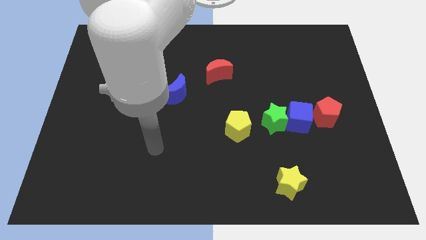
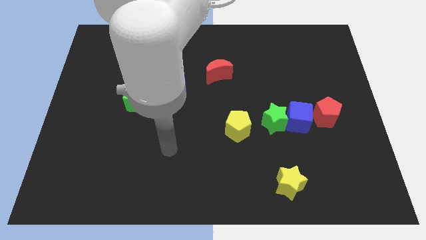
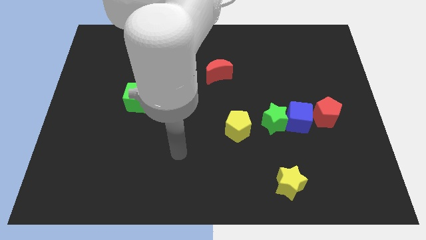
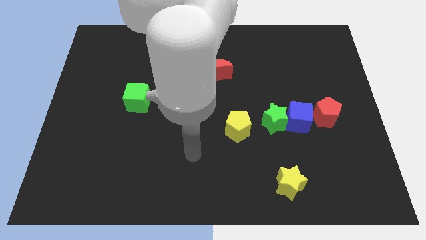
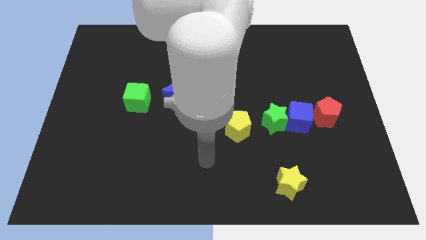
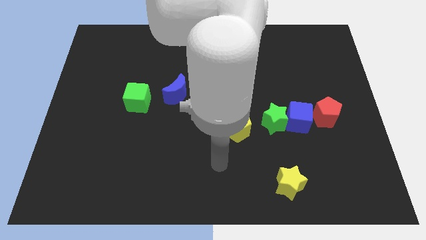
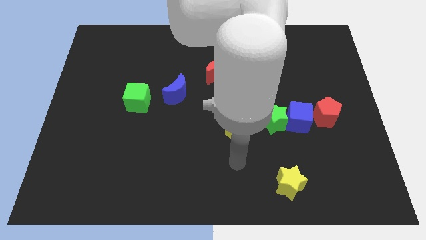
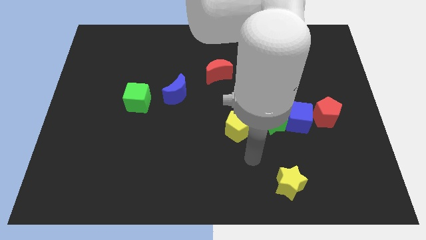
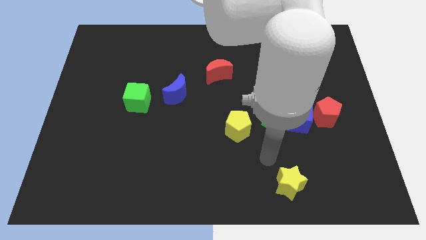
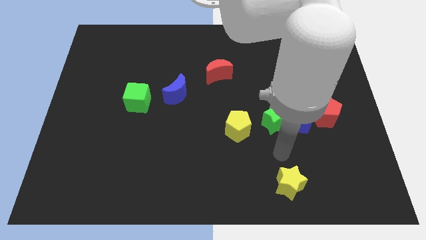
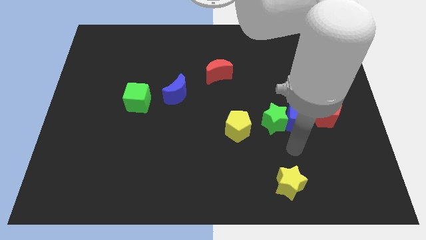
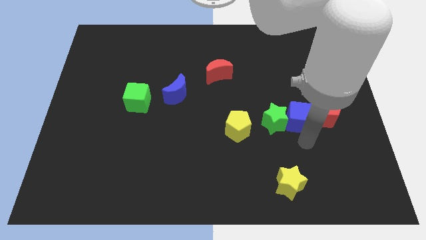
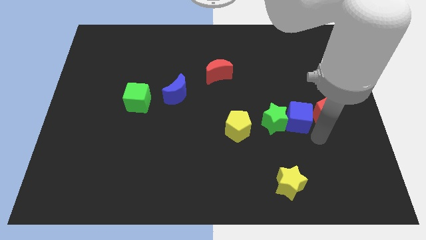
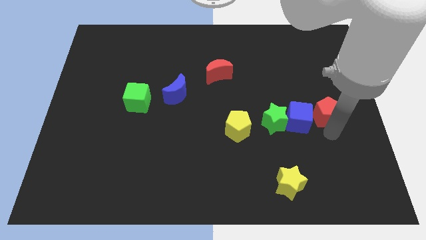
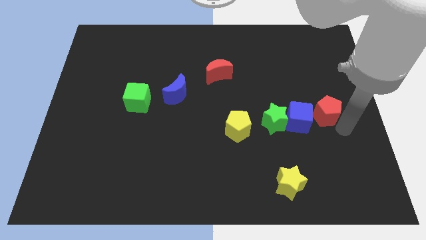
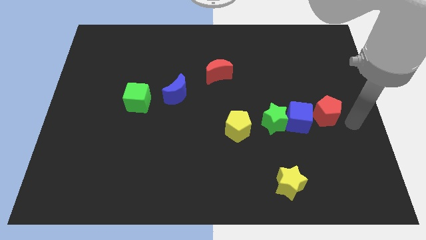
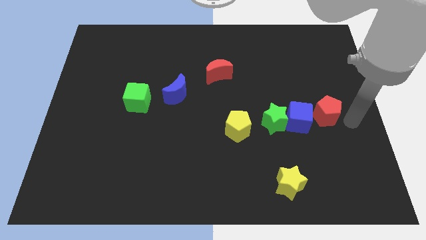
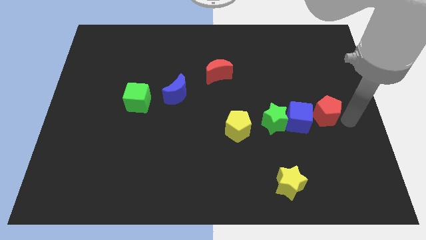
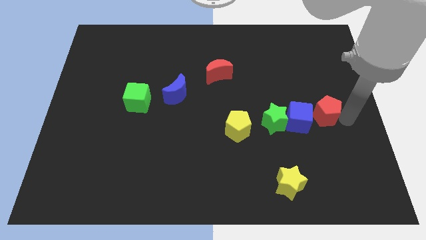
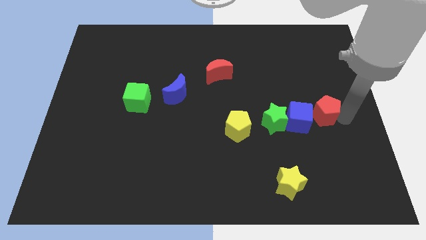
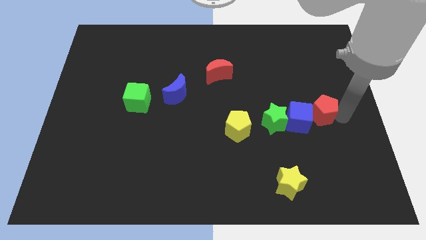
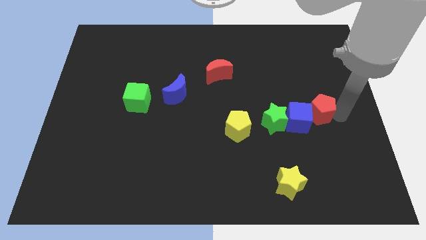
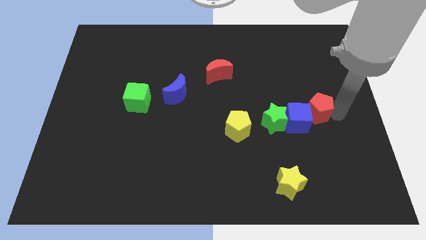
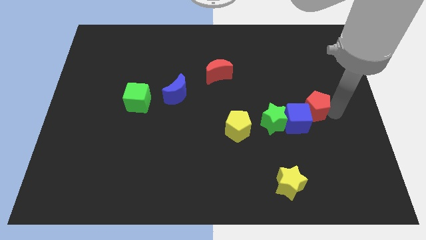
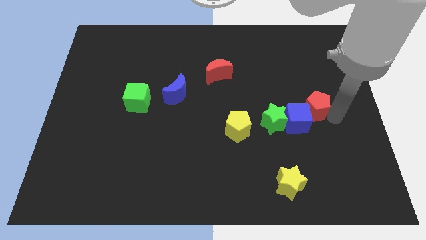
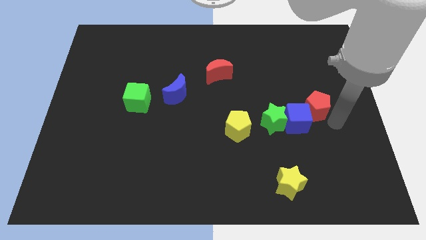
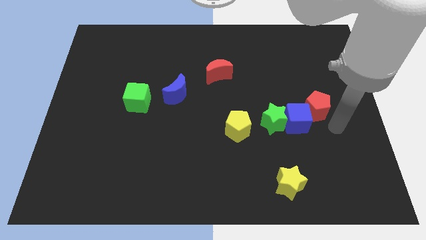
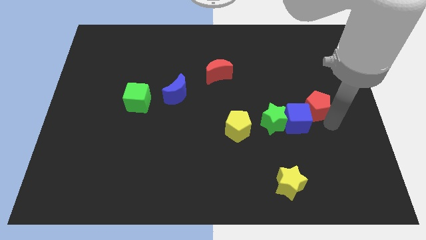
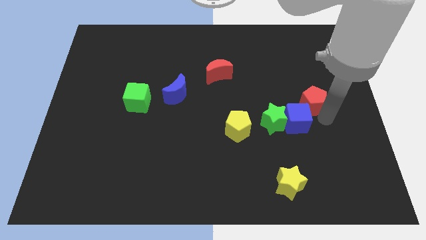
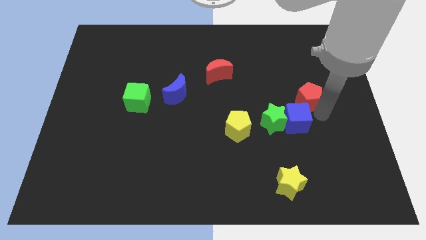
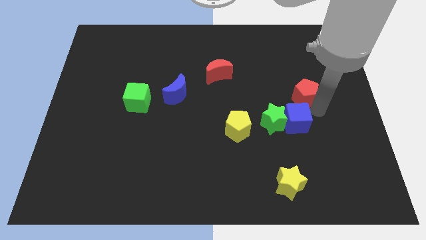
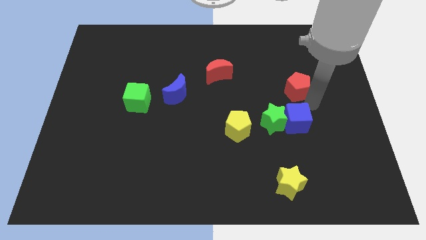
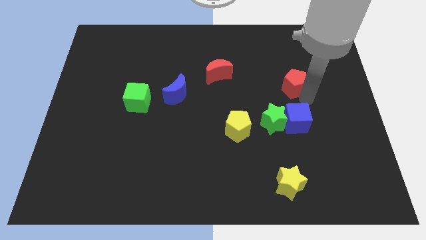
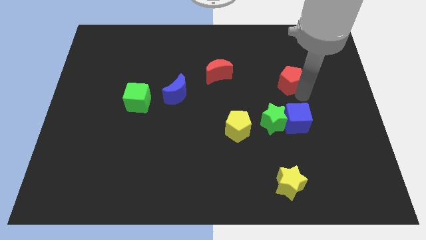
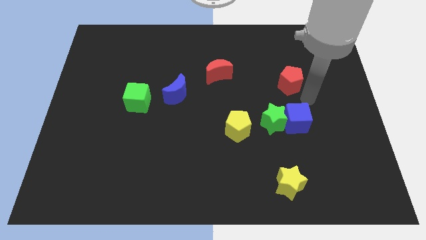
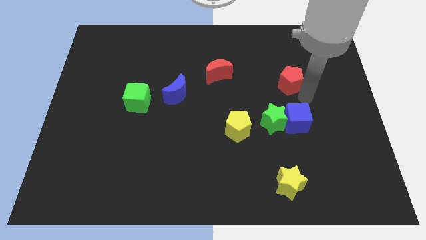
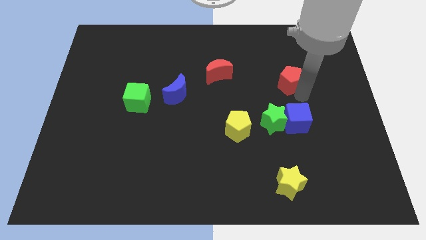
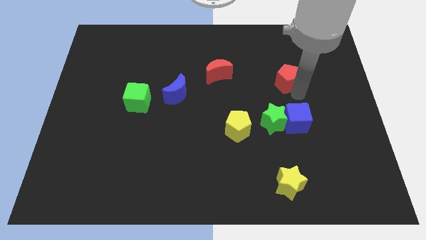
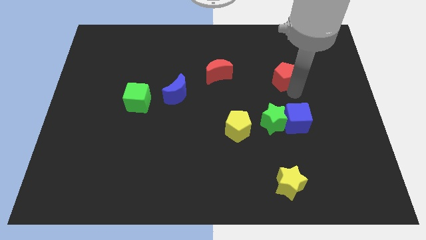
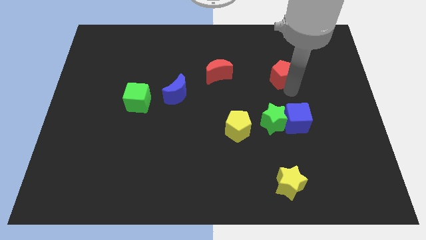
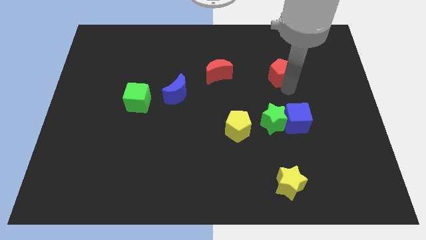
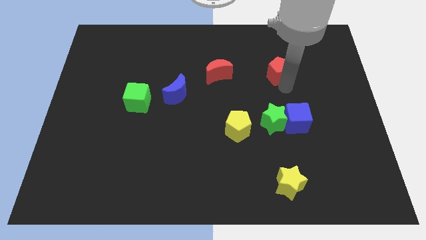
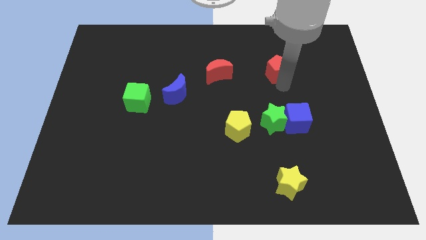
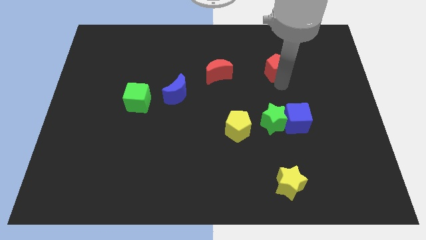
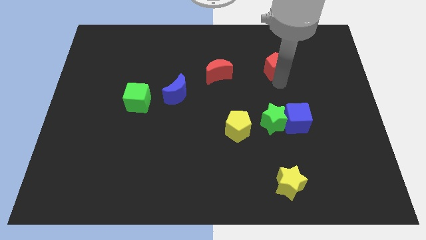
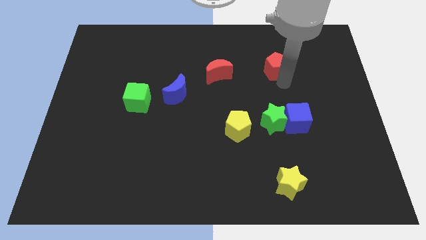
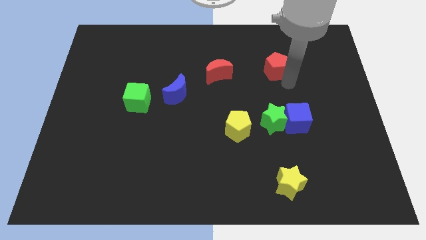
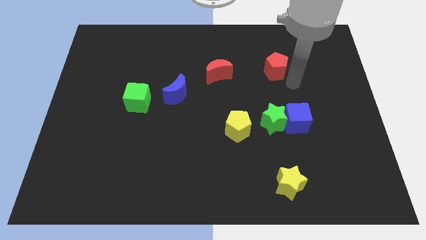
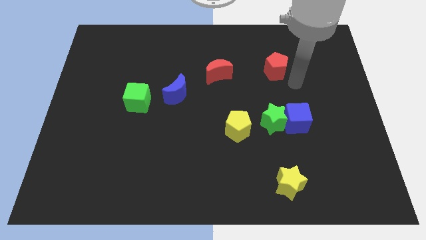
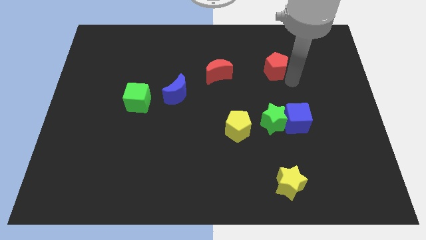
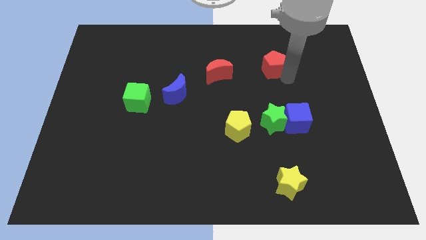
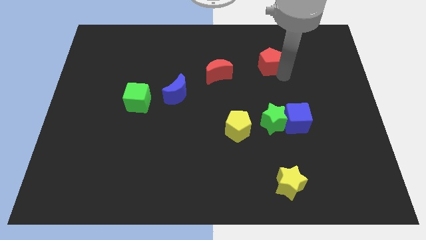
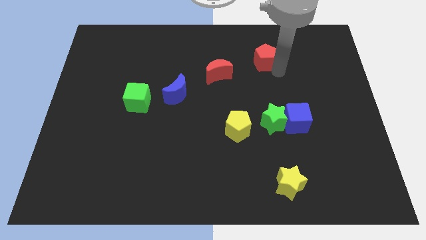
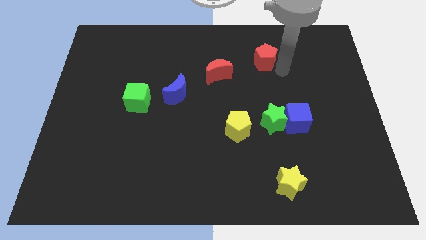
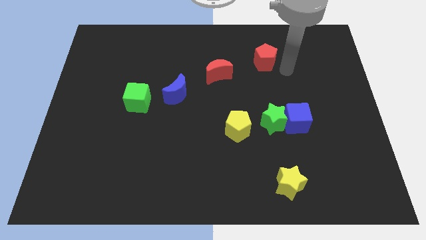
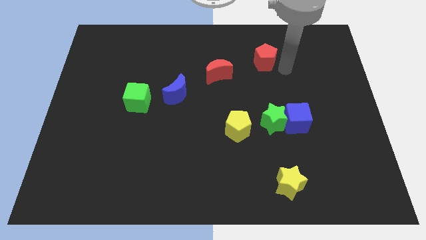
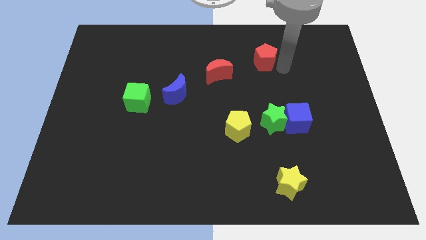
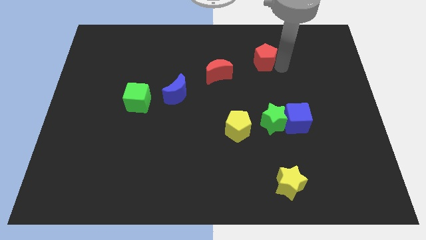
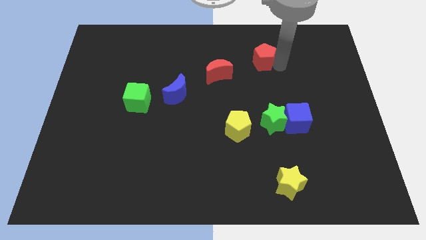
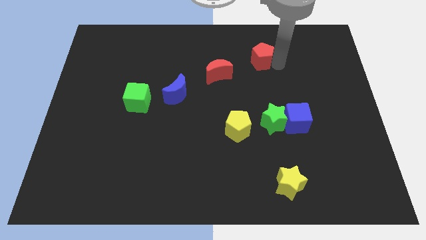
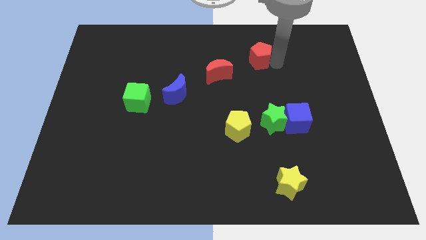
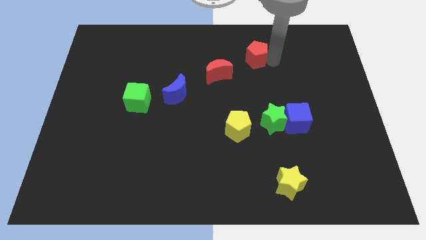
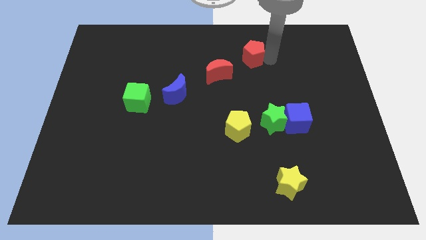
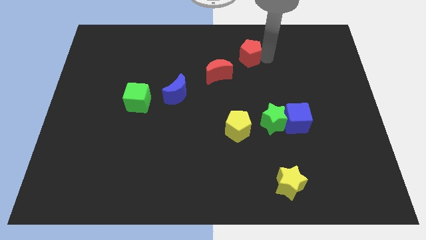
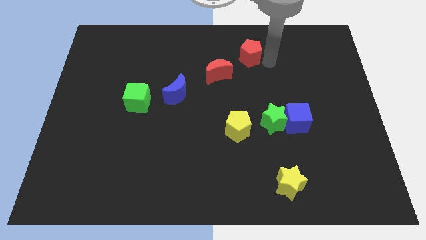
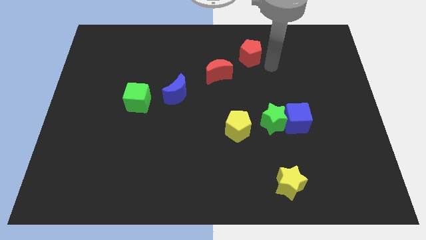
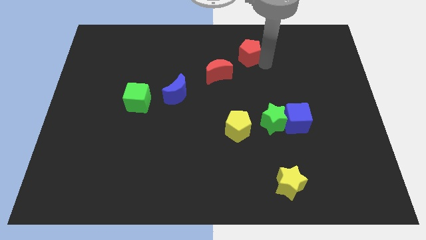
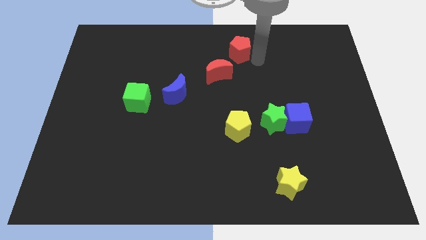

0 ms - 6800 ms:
push the red pentagon to the towards your base
